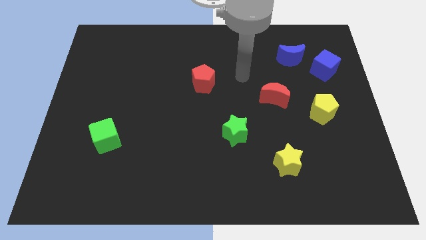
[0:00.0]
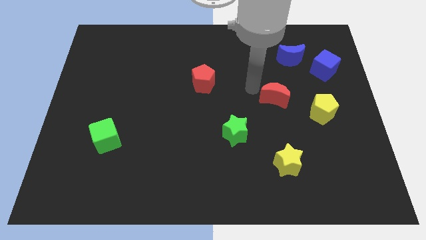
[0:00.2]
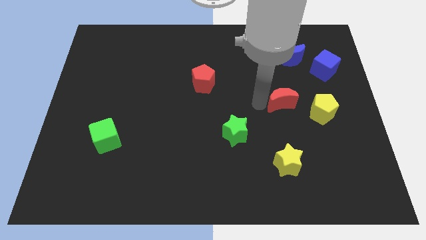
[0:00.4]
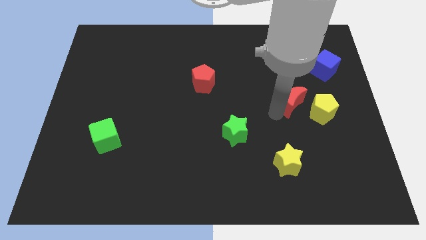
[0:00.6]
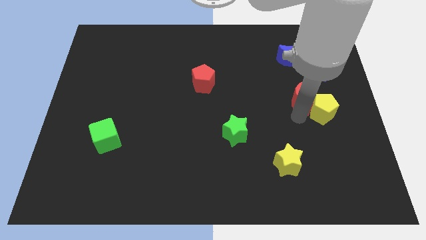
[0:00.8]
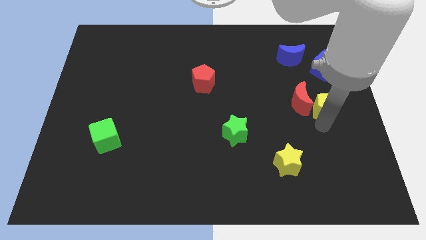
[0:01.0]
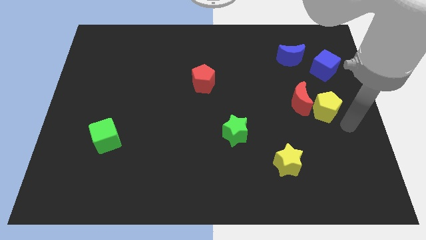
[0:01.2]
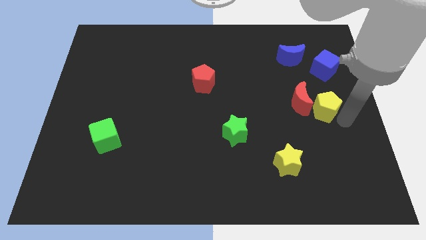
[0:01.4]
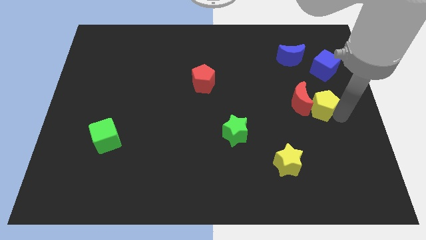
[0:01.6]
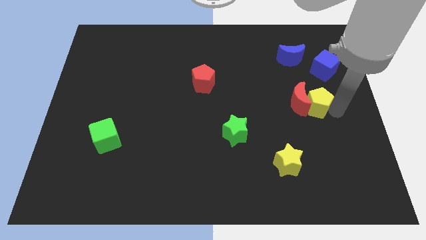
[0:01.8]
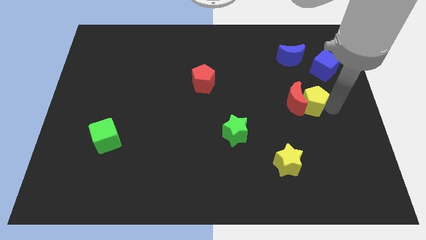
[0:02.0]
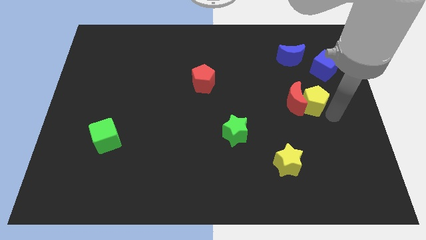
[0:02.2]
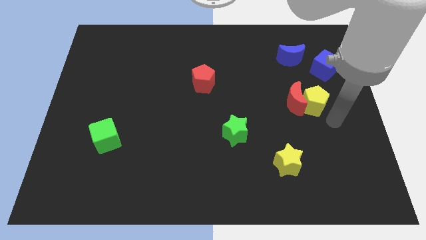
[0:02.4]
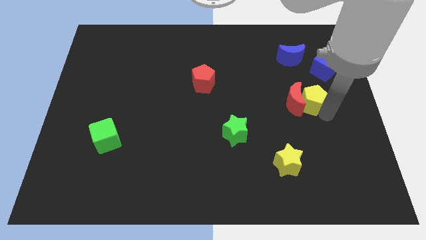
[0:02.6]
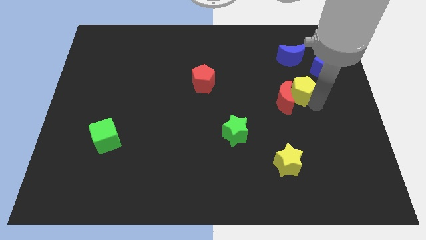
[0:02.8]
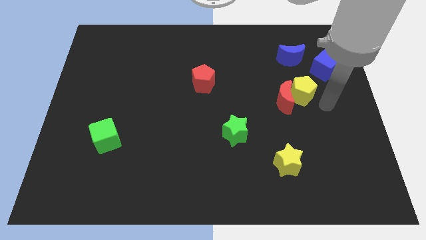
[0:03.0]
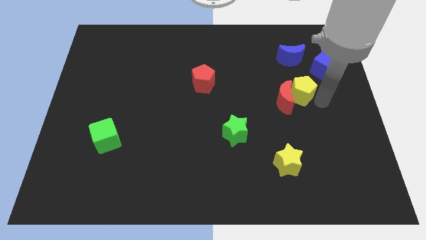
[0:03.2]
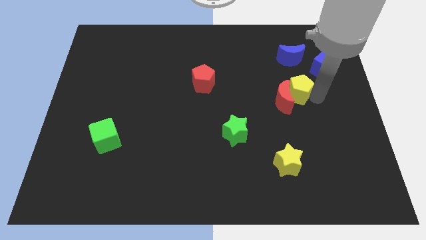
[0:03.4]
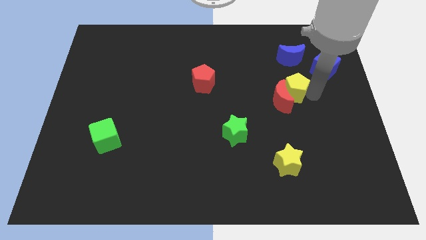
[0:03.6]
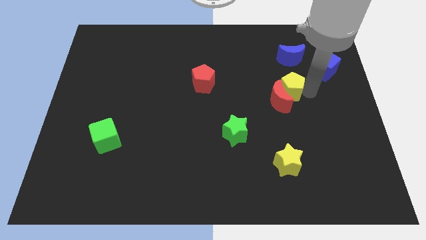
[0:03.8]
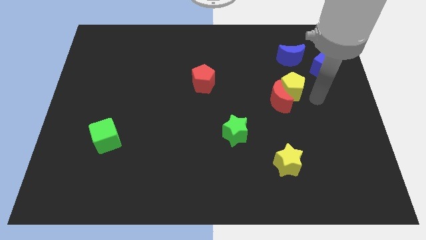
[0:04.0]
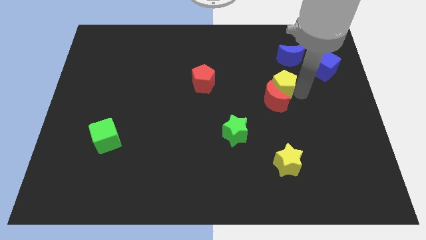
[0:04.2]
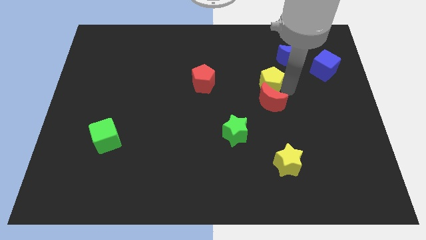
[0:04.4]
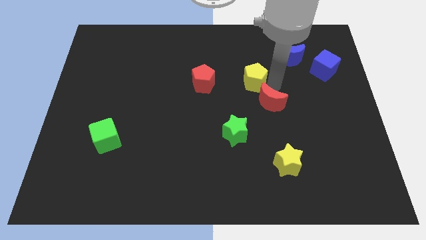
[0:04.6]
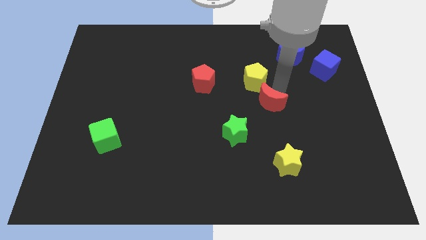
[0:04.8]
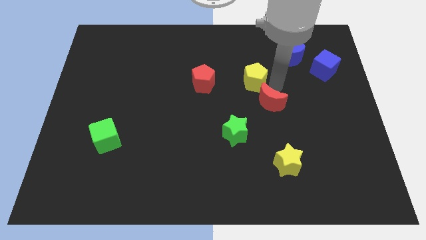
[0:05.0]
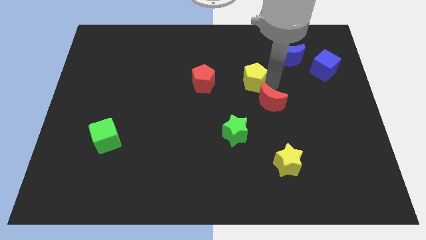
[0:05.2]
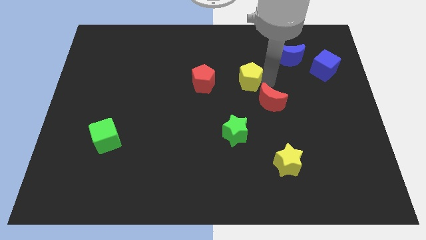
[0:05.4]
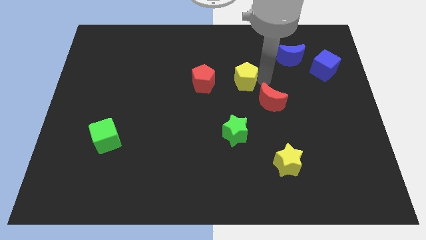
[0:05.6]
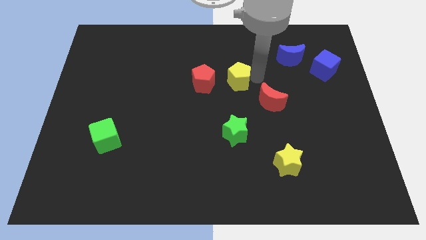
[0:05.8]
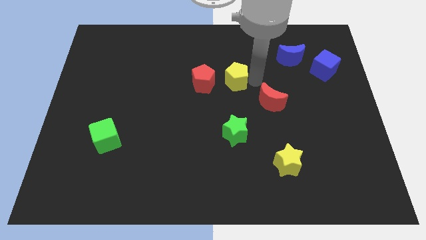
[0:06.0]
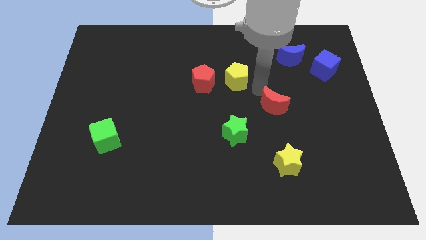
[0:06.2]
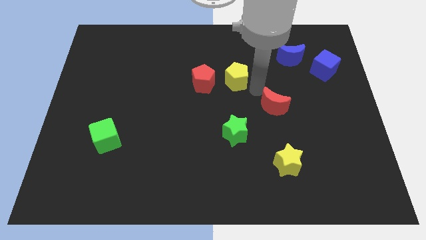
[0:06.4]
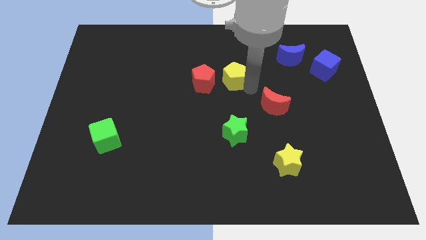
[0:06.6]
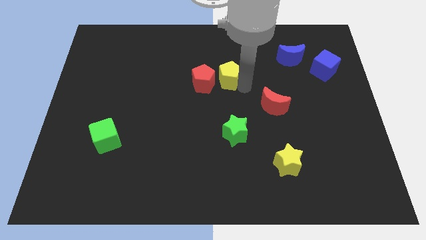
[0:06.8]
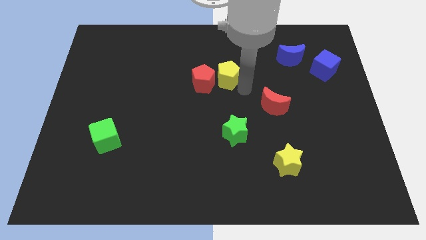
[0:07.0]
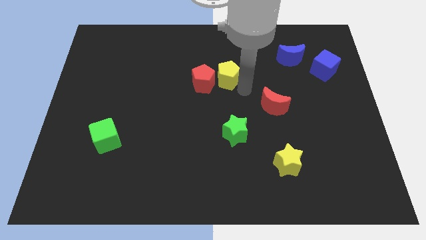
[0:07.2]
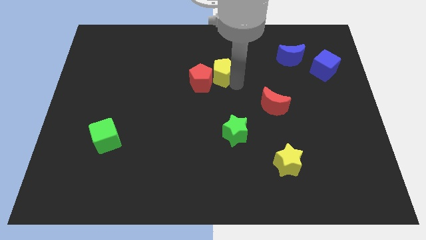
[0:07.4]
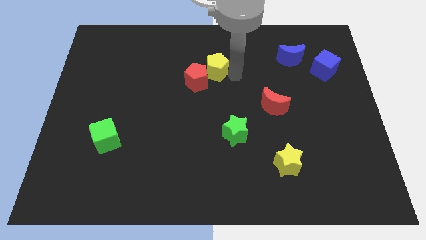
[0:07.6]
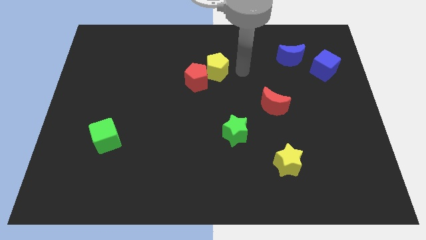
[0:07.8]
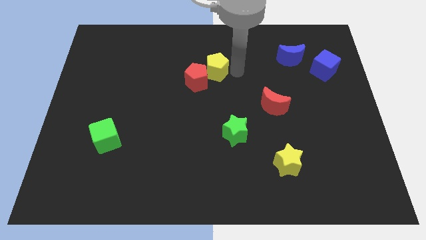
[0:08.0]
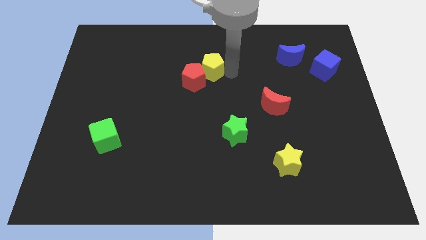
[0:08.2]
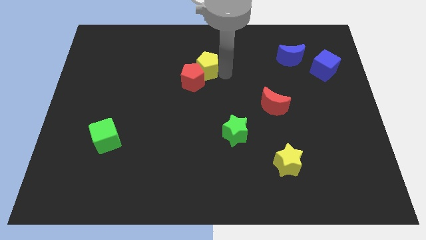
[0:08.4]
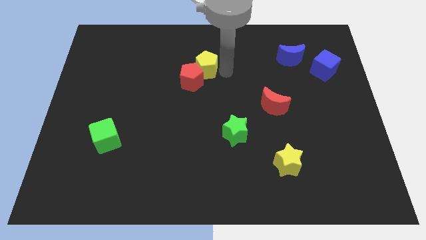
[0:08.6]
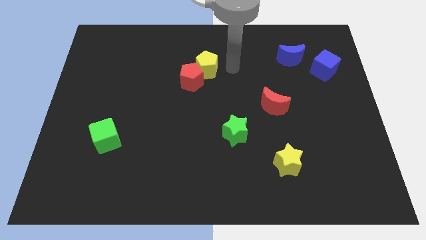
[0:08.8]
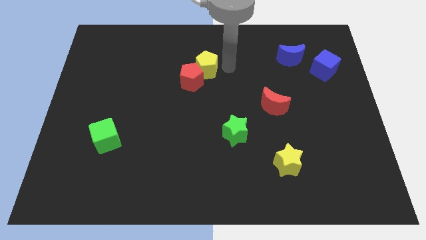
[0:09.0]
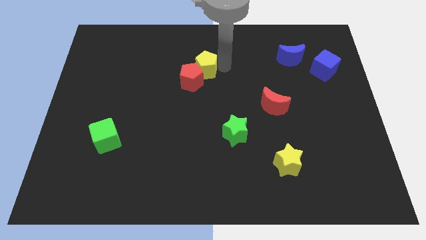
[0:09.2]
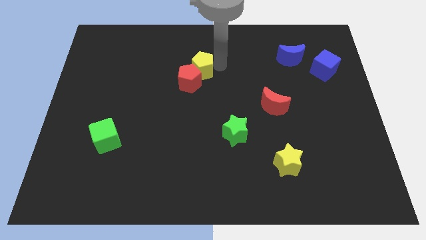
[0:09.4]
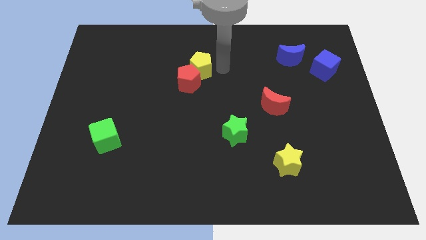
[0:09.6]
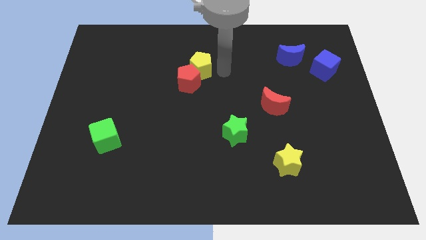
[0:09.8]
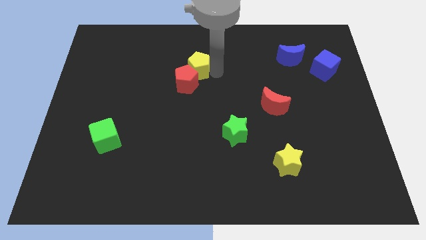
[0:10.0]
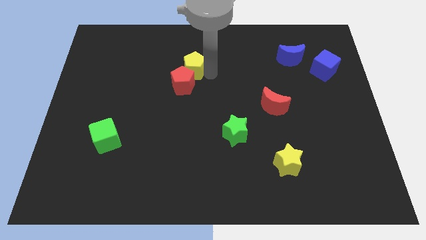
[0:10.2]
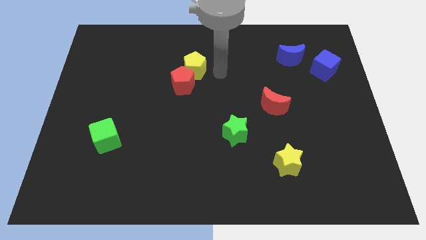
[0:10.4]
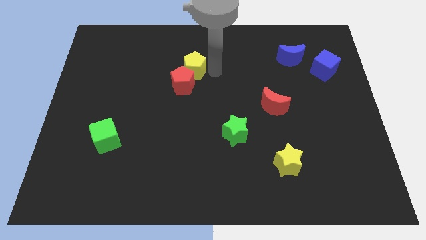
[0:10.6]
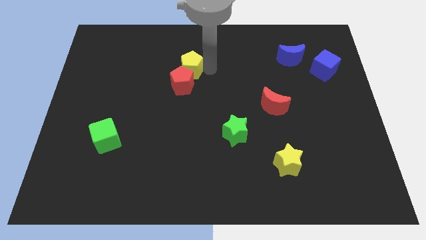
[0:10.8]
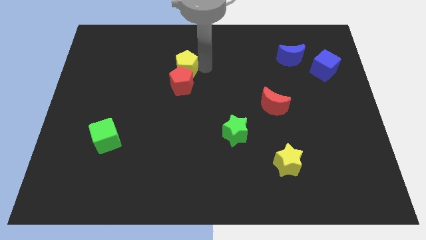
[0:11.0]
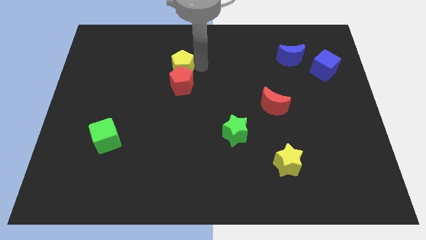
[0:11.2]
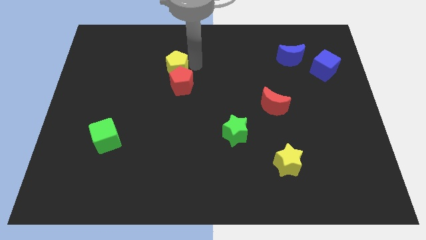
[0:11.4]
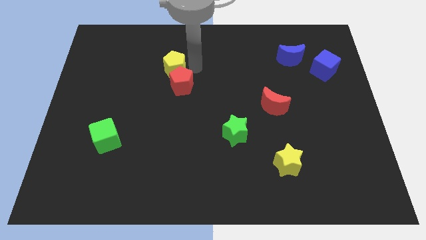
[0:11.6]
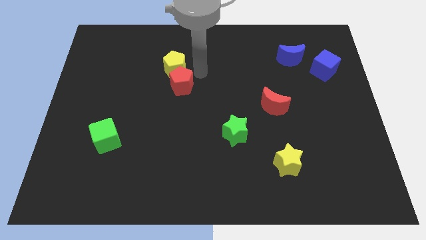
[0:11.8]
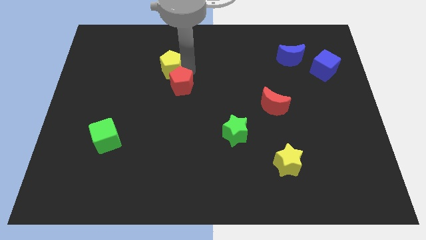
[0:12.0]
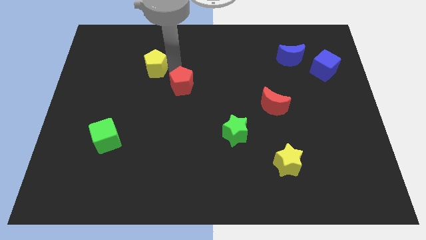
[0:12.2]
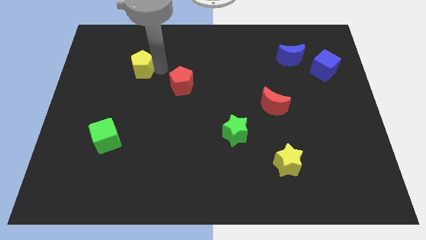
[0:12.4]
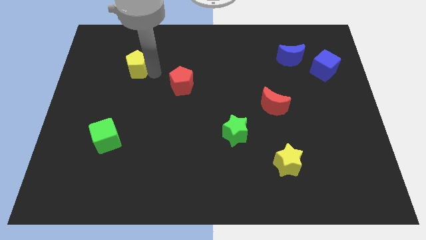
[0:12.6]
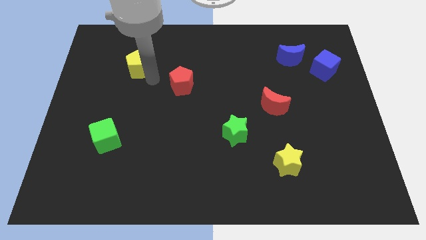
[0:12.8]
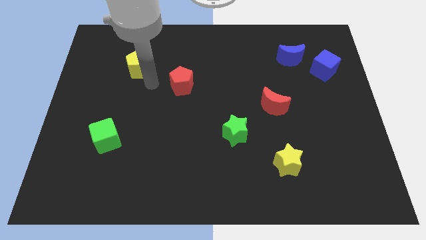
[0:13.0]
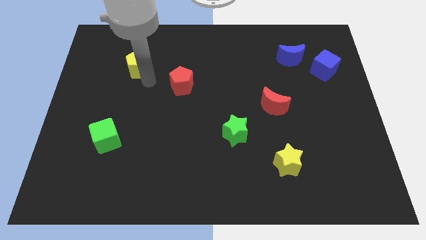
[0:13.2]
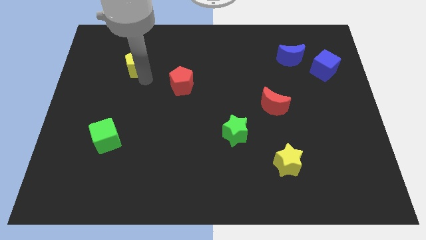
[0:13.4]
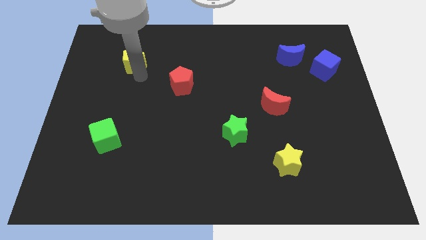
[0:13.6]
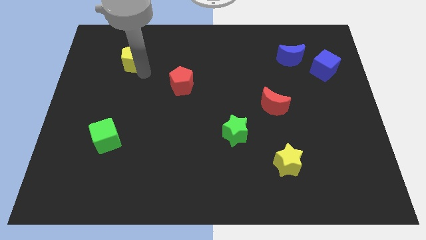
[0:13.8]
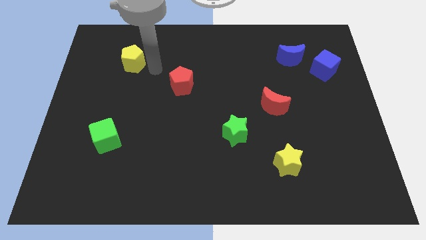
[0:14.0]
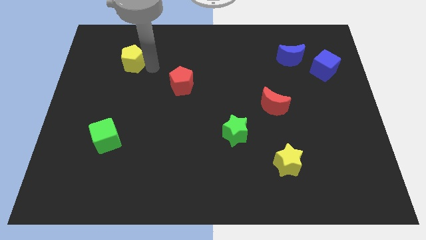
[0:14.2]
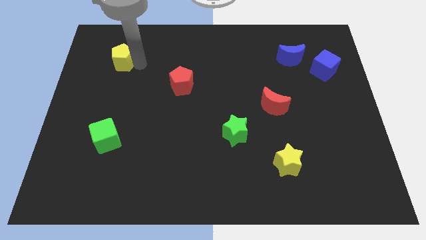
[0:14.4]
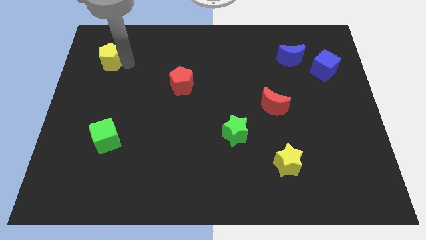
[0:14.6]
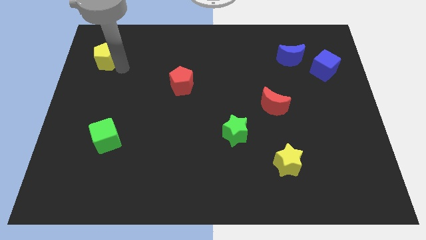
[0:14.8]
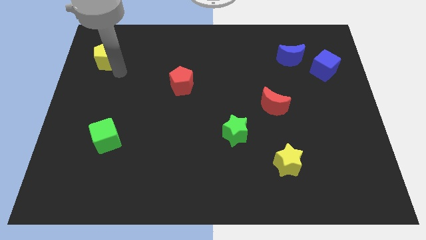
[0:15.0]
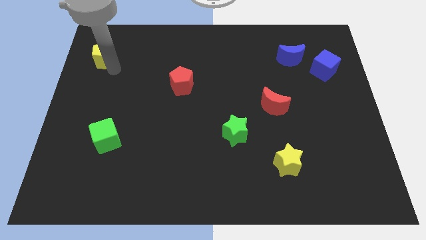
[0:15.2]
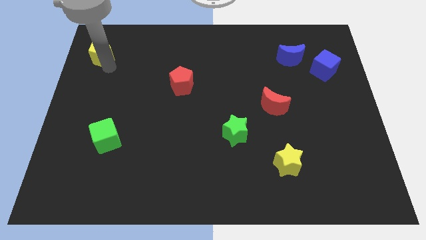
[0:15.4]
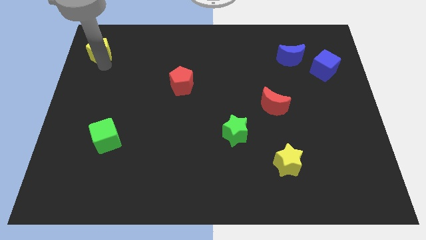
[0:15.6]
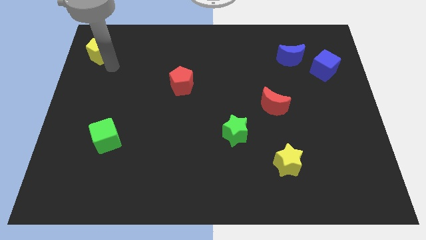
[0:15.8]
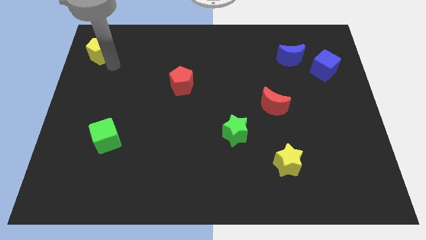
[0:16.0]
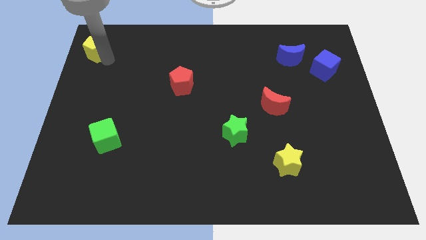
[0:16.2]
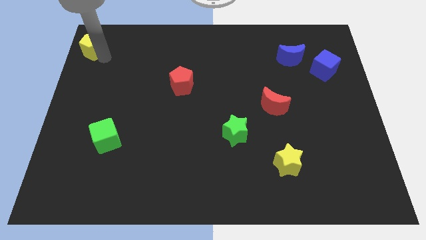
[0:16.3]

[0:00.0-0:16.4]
push the yellow pentagon to the top left corner
